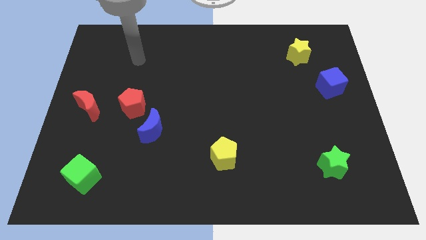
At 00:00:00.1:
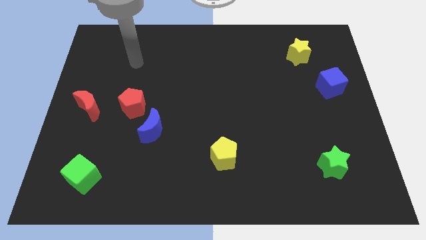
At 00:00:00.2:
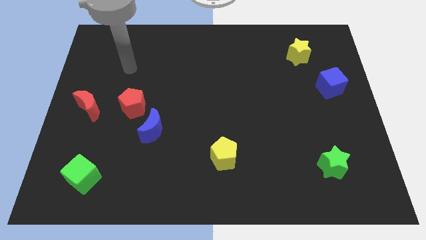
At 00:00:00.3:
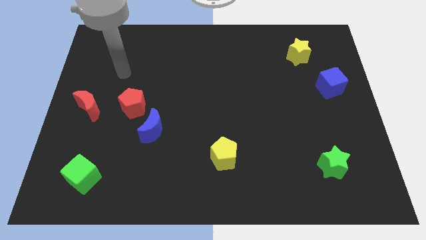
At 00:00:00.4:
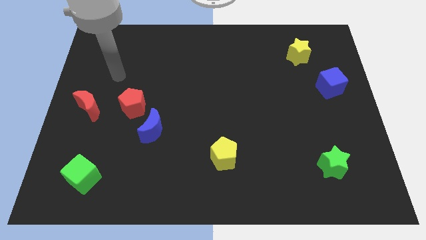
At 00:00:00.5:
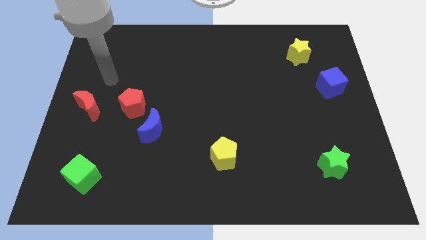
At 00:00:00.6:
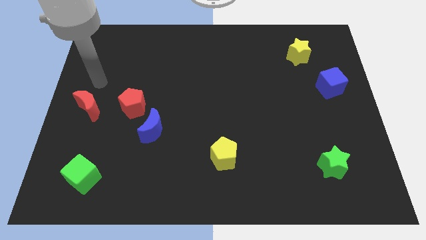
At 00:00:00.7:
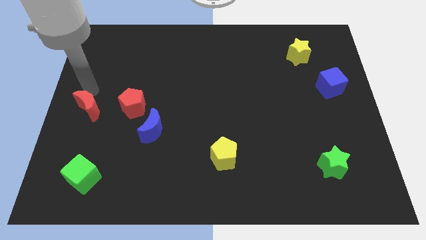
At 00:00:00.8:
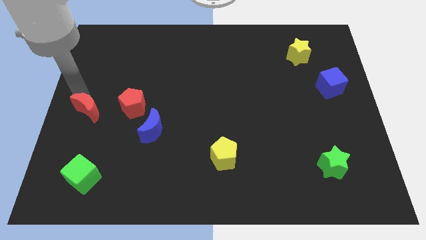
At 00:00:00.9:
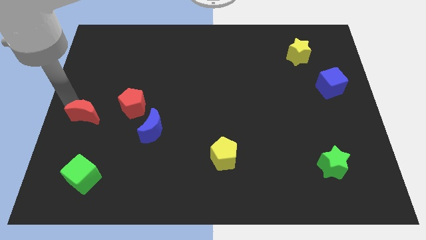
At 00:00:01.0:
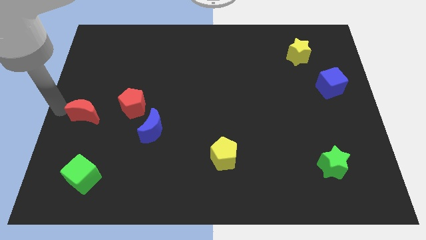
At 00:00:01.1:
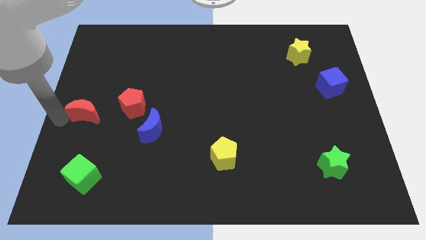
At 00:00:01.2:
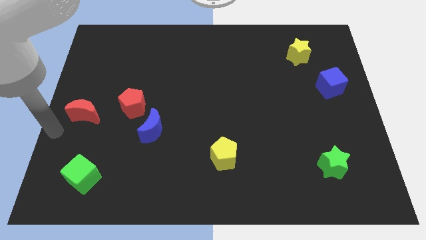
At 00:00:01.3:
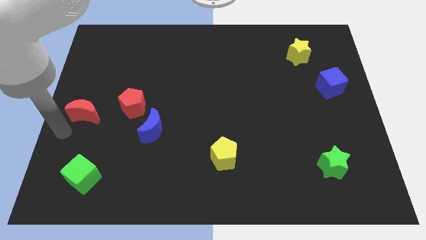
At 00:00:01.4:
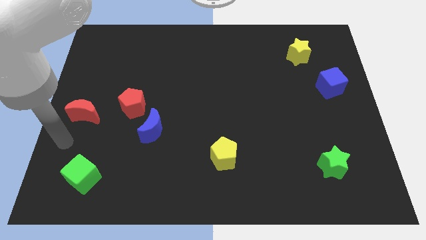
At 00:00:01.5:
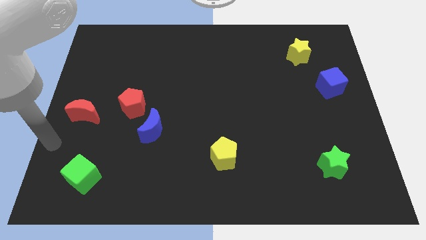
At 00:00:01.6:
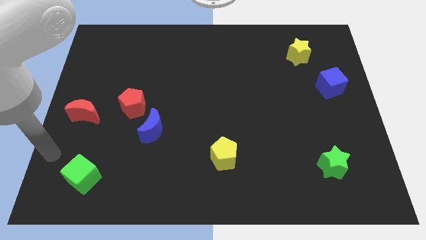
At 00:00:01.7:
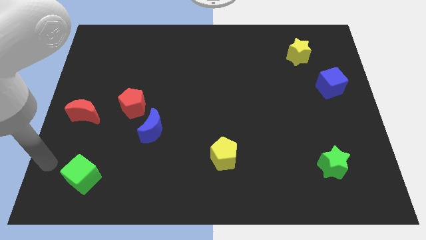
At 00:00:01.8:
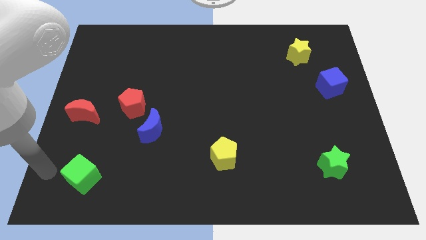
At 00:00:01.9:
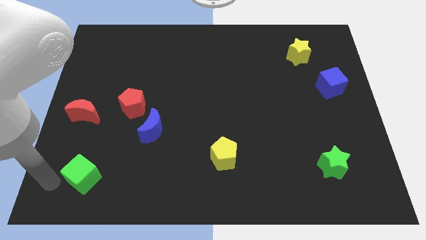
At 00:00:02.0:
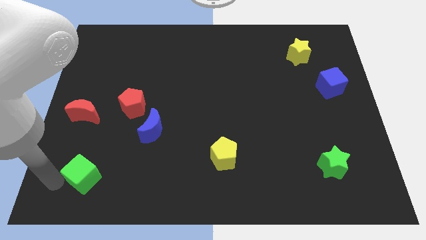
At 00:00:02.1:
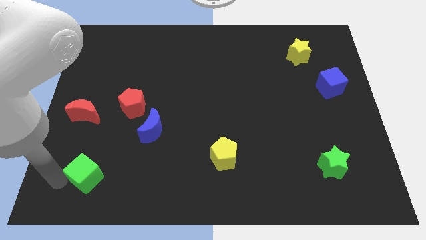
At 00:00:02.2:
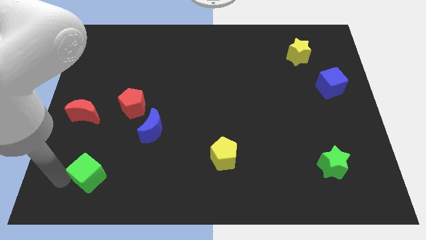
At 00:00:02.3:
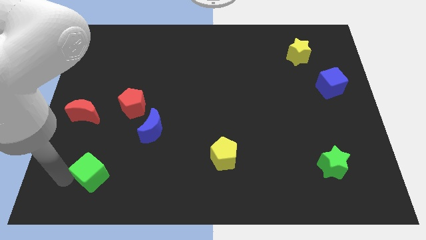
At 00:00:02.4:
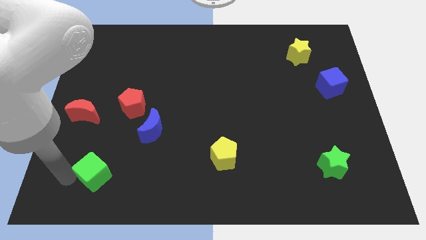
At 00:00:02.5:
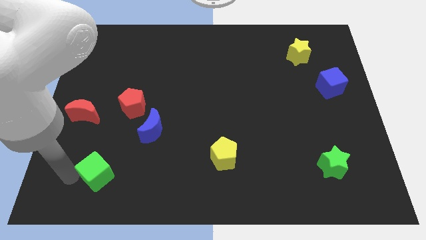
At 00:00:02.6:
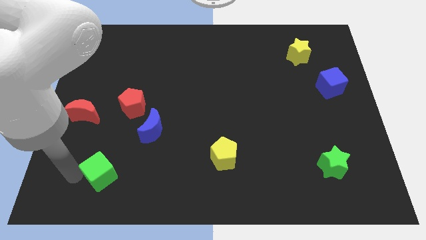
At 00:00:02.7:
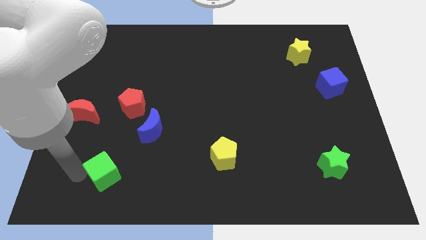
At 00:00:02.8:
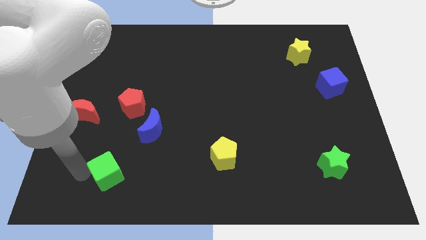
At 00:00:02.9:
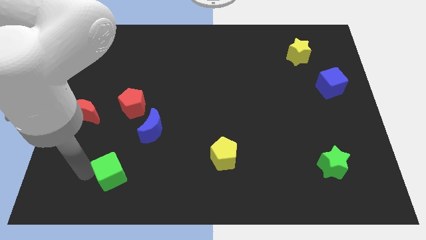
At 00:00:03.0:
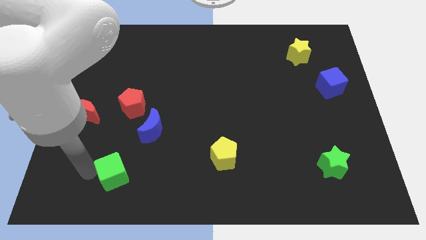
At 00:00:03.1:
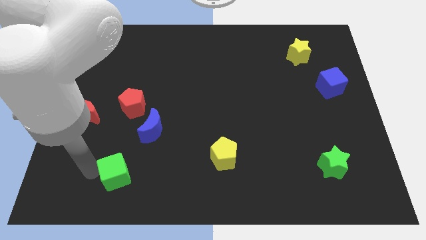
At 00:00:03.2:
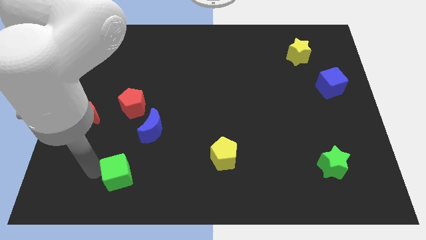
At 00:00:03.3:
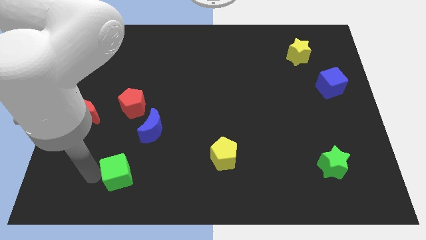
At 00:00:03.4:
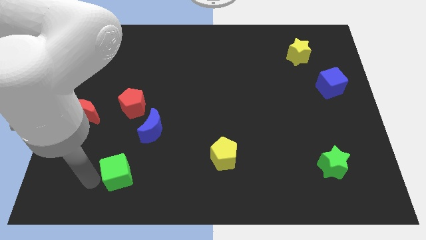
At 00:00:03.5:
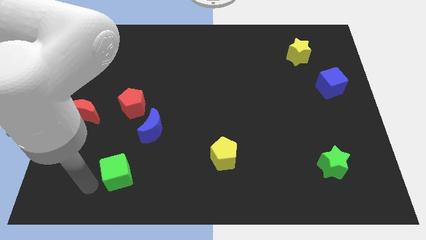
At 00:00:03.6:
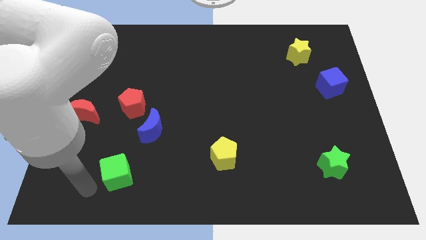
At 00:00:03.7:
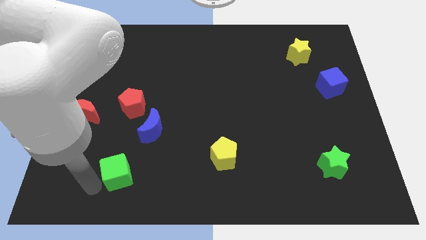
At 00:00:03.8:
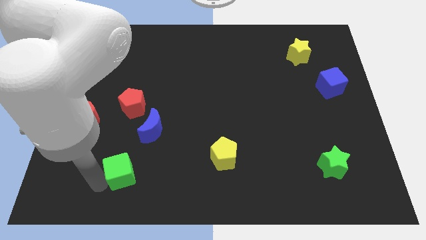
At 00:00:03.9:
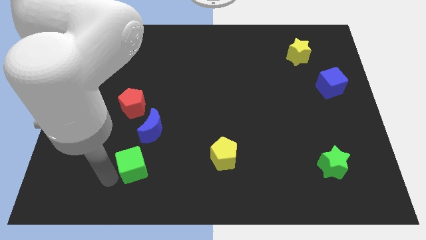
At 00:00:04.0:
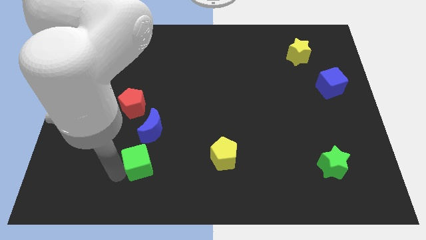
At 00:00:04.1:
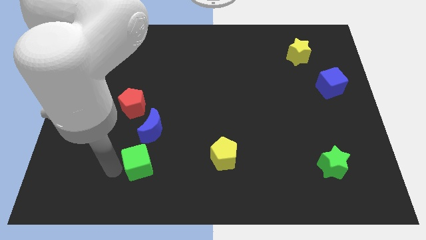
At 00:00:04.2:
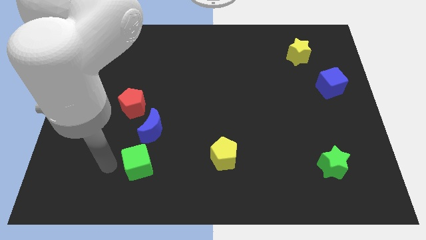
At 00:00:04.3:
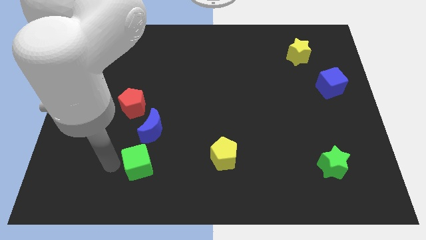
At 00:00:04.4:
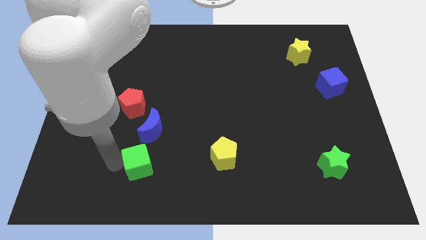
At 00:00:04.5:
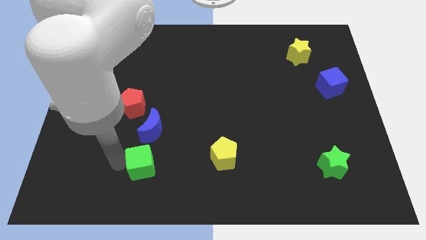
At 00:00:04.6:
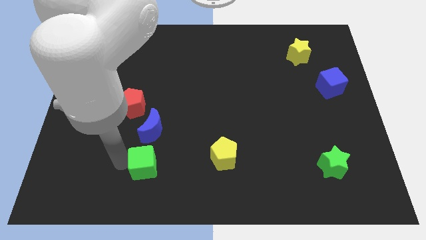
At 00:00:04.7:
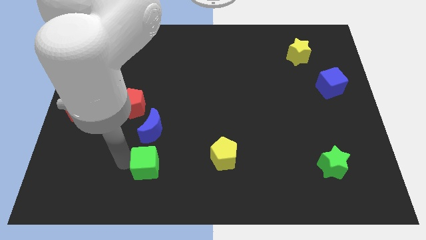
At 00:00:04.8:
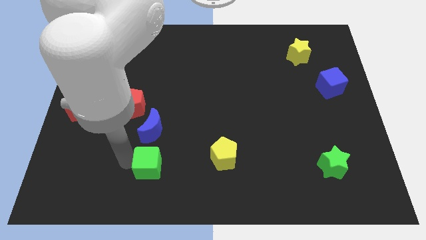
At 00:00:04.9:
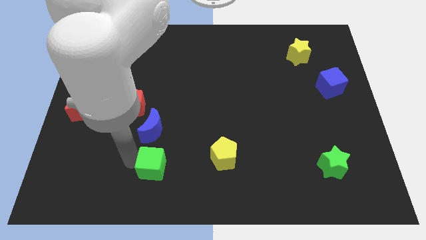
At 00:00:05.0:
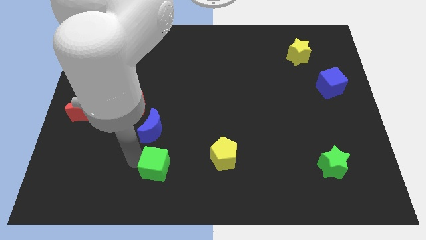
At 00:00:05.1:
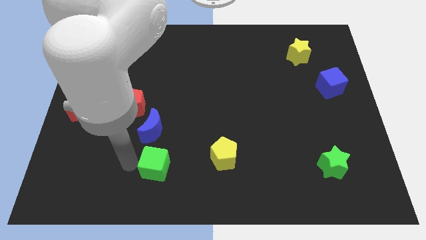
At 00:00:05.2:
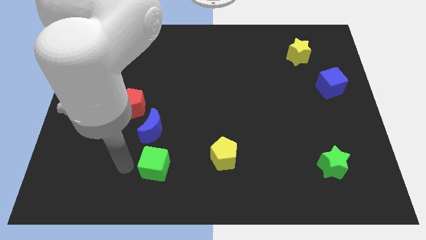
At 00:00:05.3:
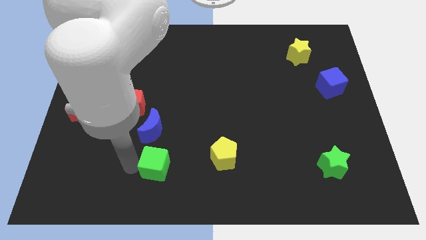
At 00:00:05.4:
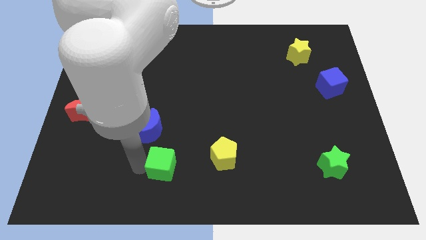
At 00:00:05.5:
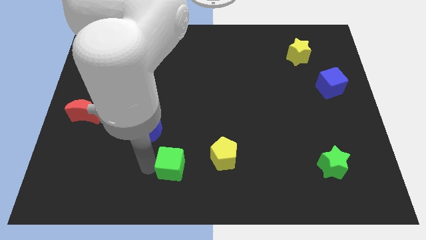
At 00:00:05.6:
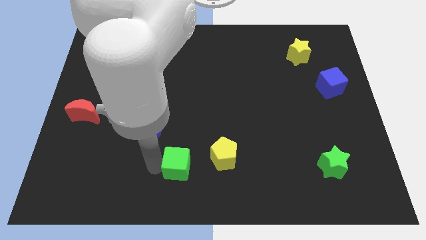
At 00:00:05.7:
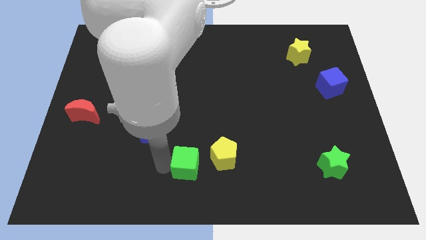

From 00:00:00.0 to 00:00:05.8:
push the green cube right

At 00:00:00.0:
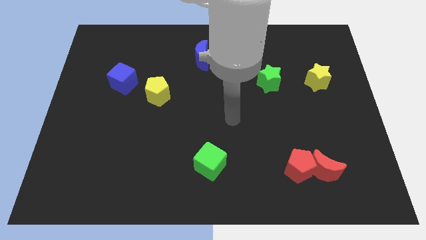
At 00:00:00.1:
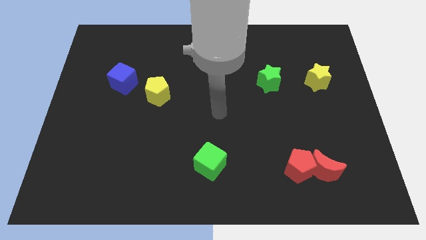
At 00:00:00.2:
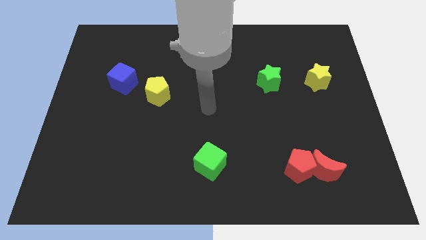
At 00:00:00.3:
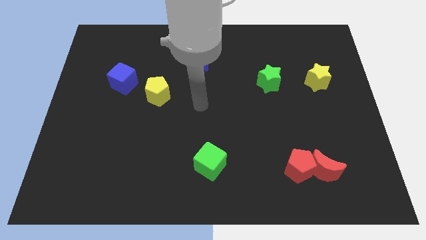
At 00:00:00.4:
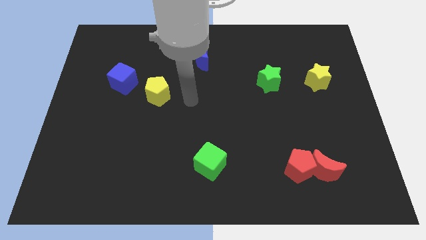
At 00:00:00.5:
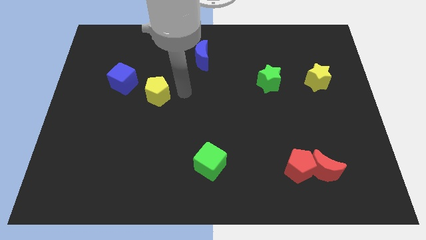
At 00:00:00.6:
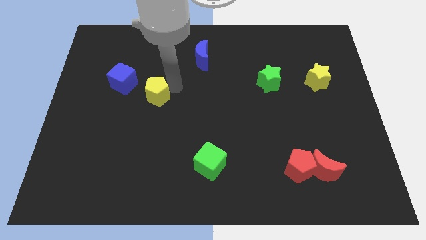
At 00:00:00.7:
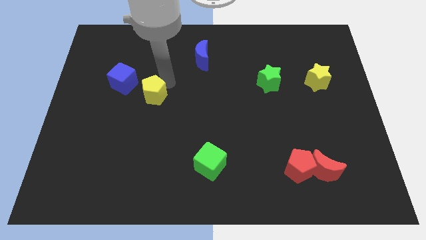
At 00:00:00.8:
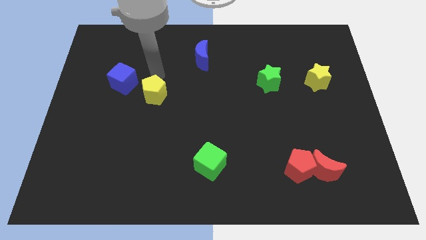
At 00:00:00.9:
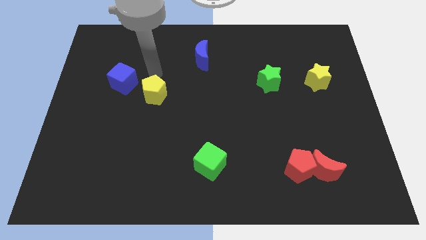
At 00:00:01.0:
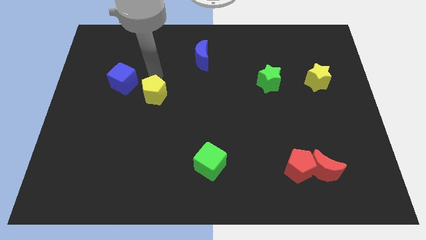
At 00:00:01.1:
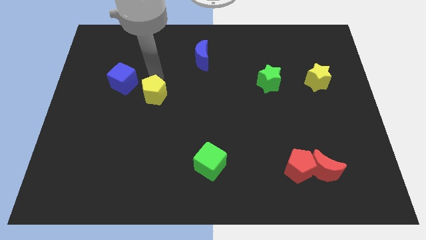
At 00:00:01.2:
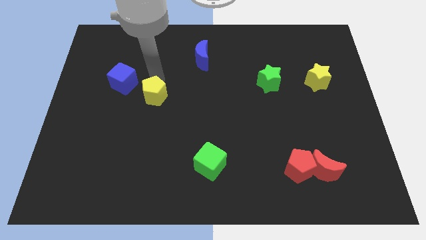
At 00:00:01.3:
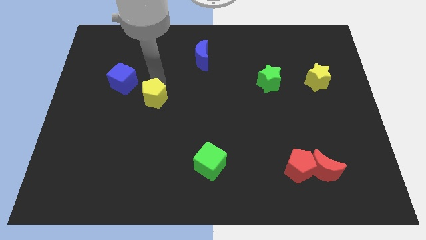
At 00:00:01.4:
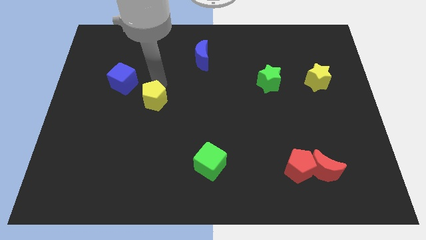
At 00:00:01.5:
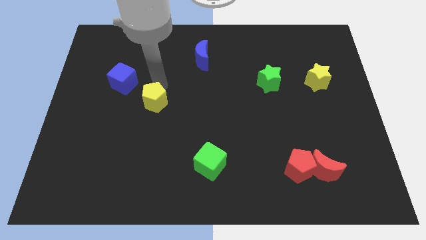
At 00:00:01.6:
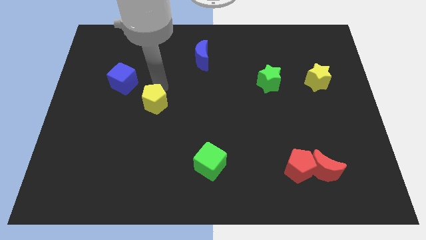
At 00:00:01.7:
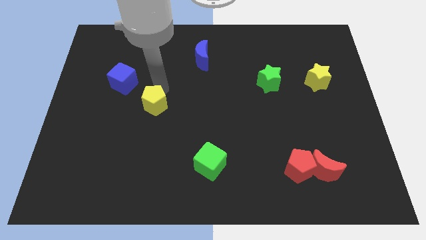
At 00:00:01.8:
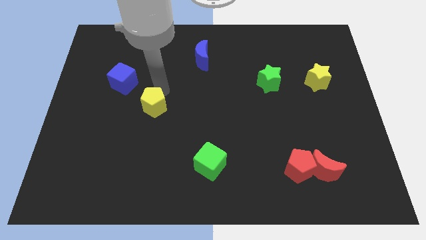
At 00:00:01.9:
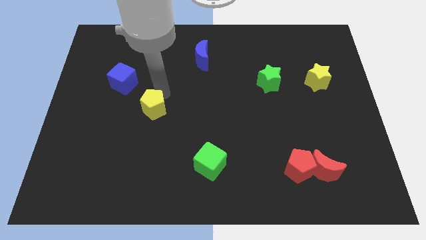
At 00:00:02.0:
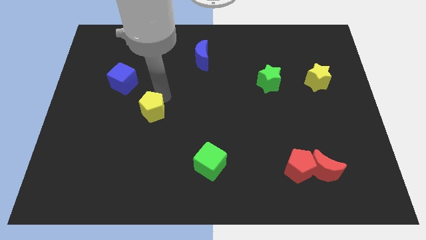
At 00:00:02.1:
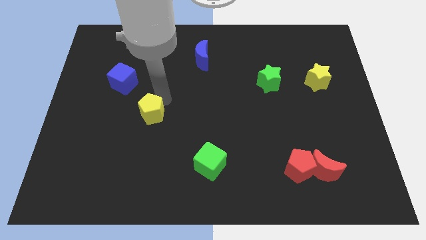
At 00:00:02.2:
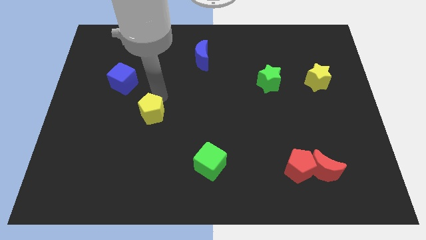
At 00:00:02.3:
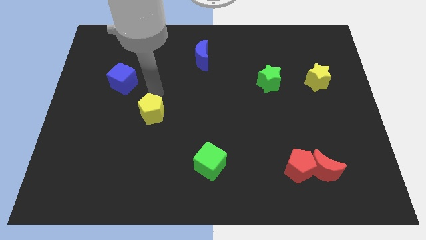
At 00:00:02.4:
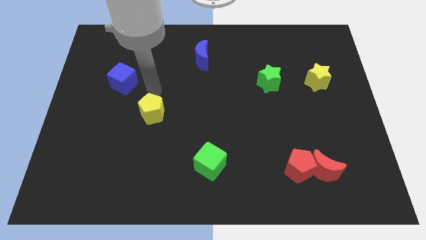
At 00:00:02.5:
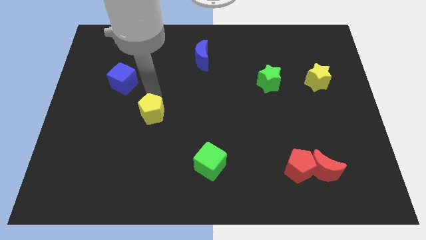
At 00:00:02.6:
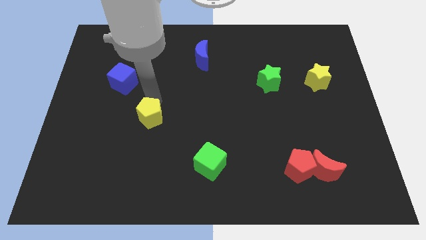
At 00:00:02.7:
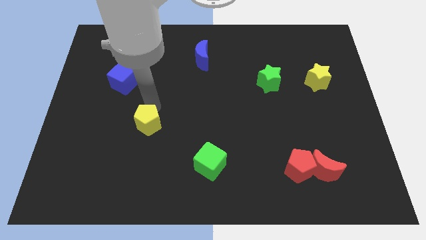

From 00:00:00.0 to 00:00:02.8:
move the yellow pentagon slightly down
